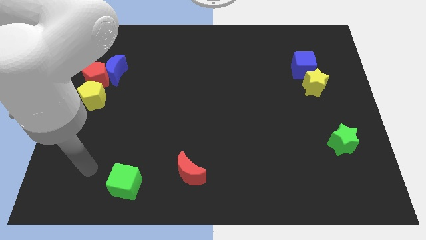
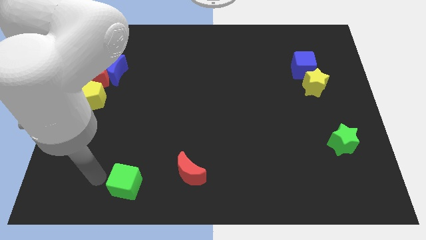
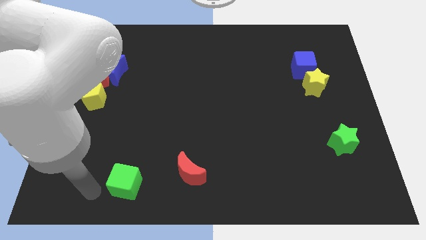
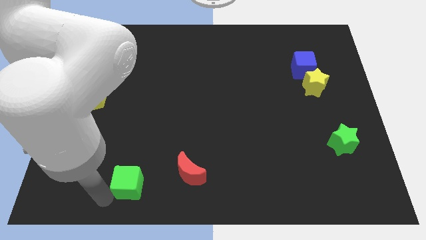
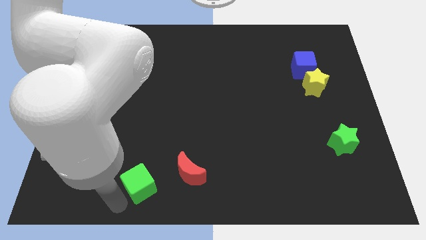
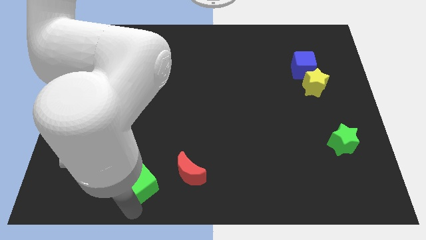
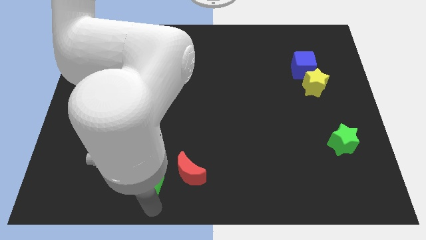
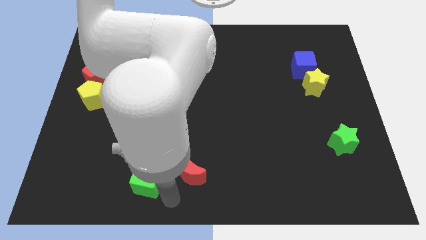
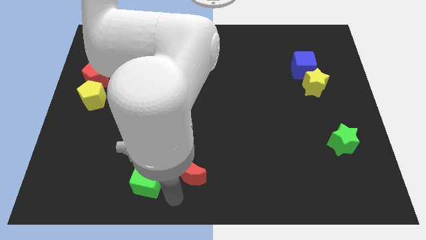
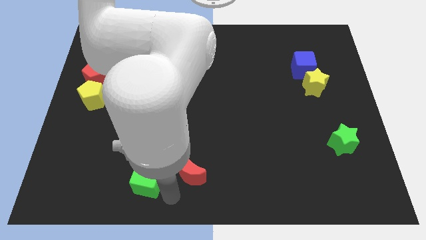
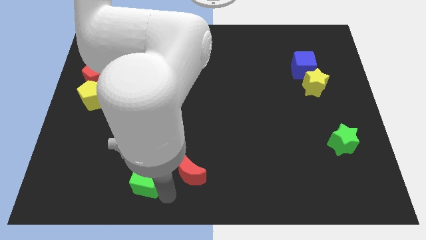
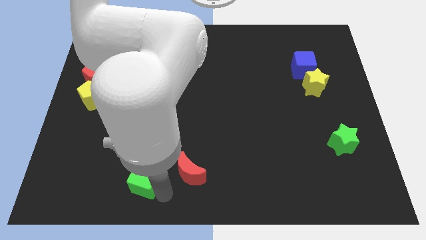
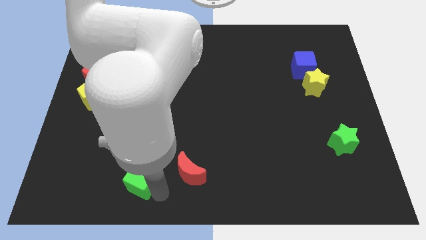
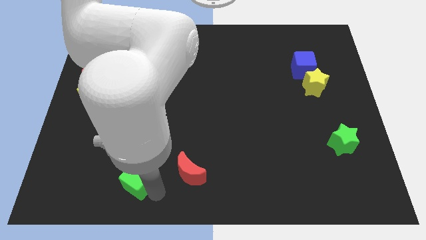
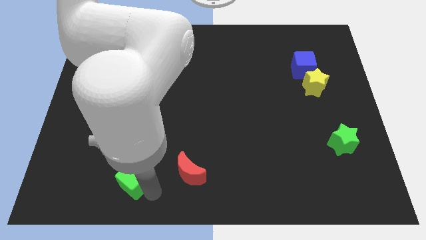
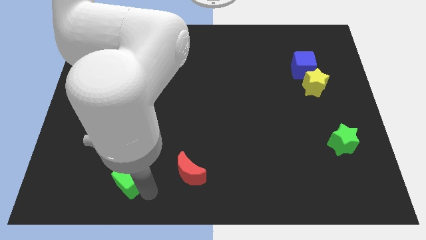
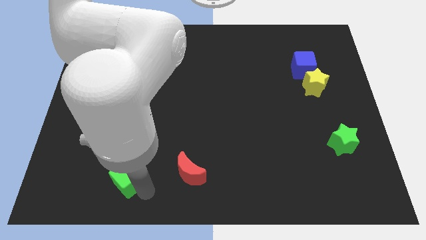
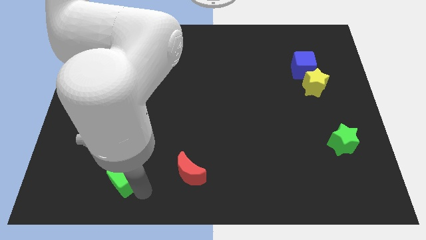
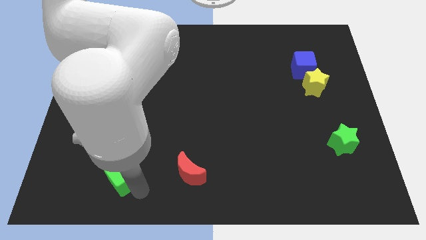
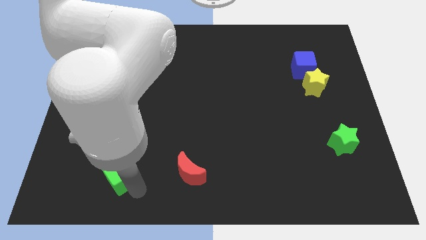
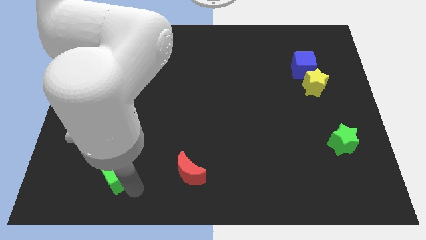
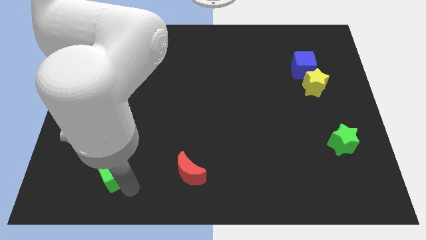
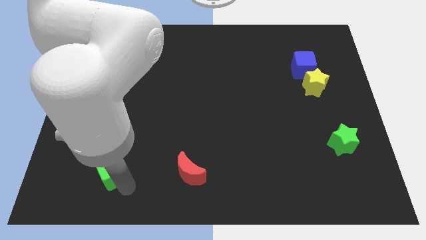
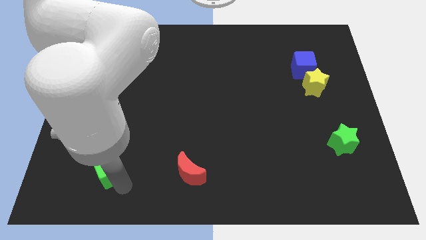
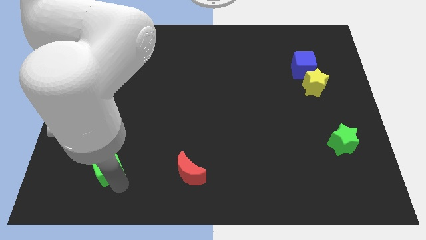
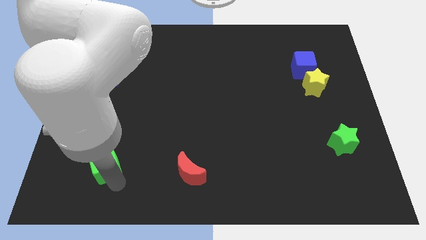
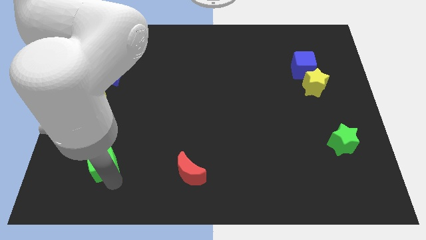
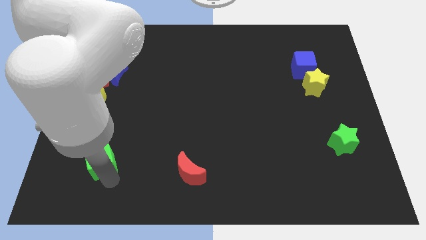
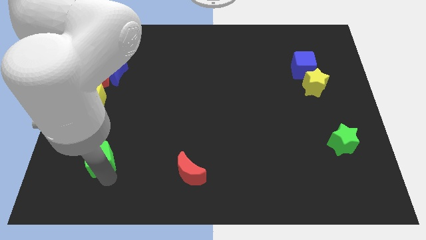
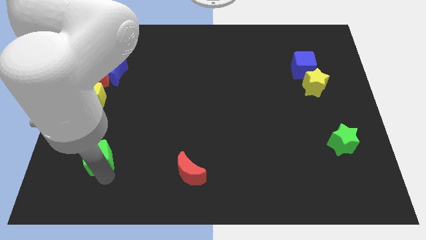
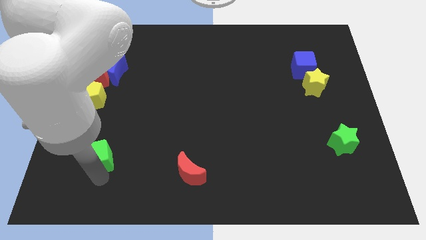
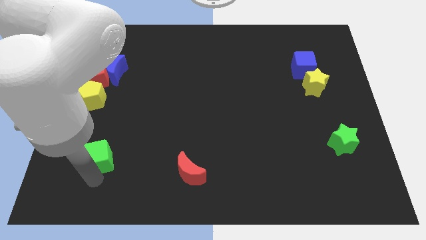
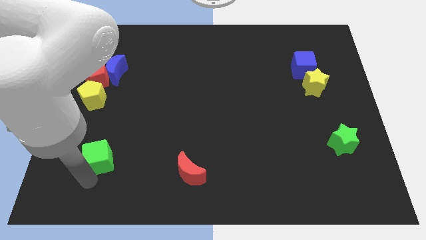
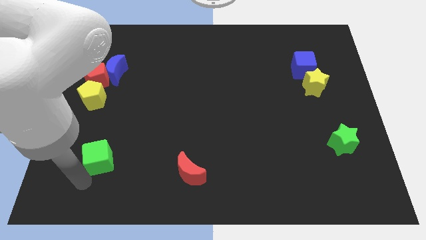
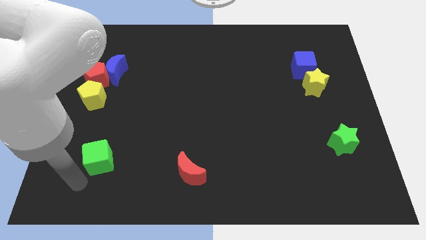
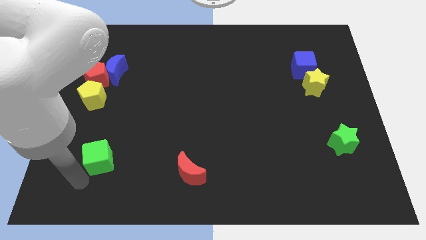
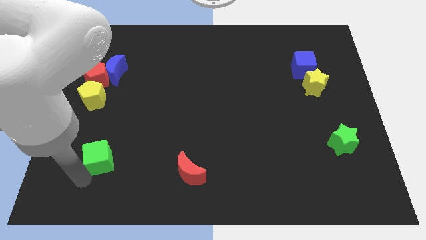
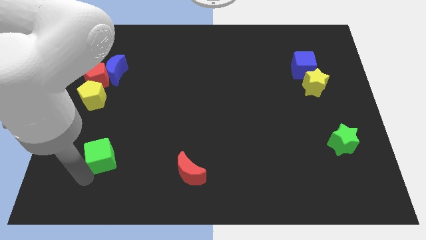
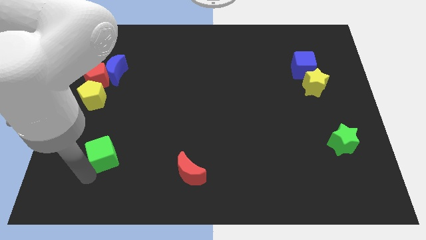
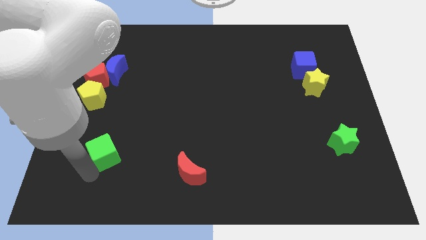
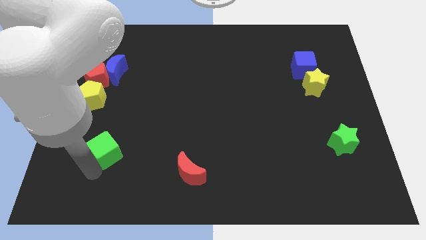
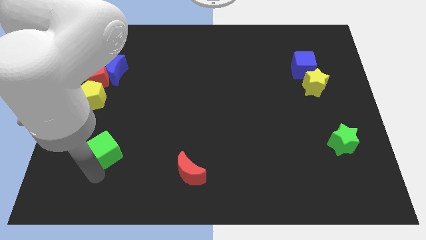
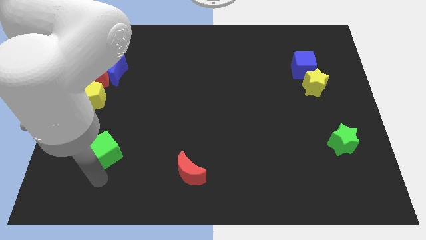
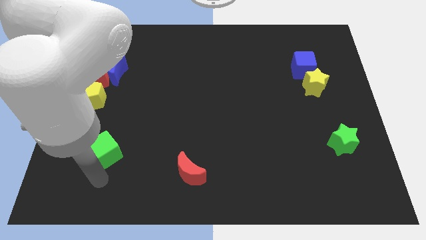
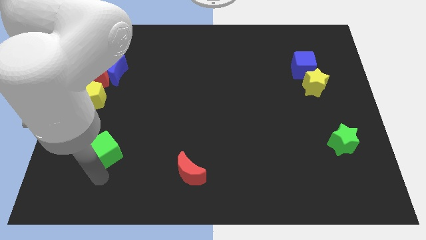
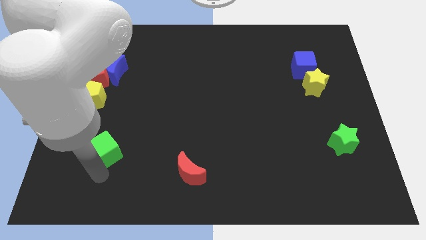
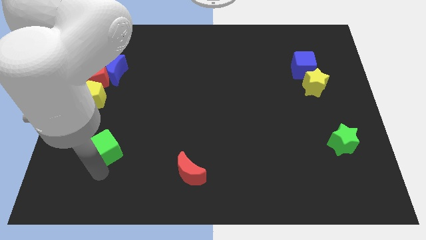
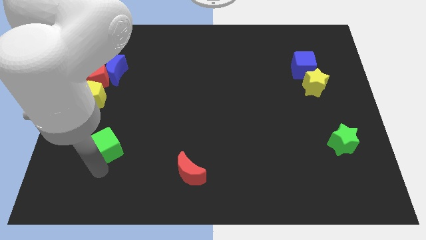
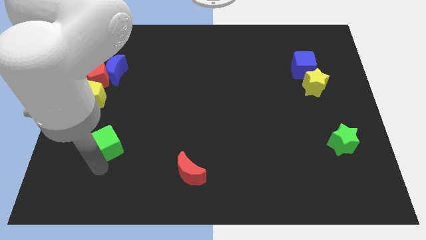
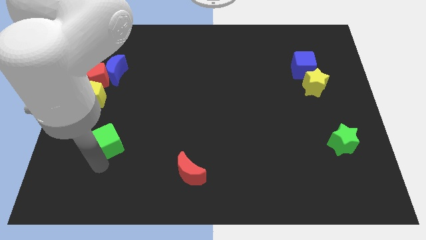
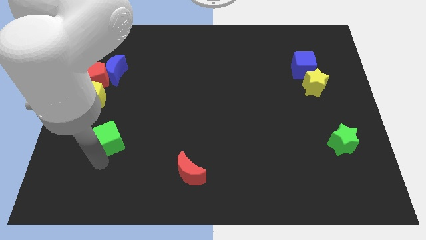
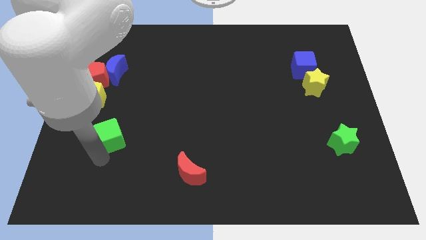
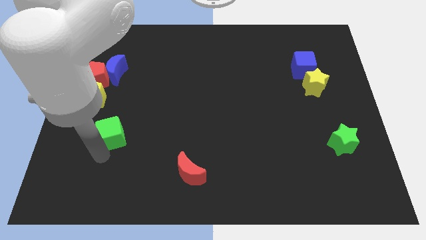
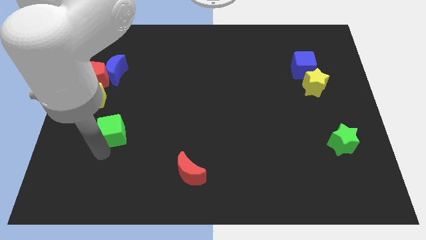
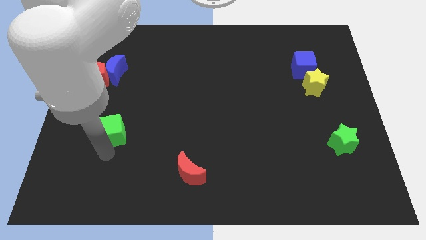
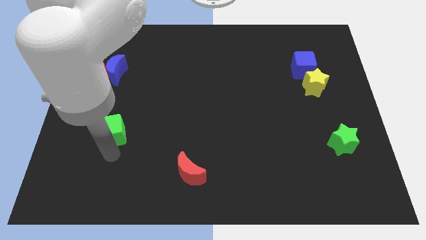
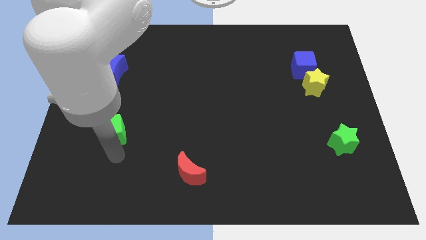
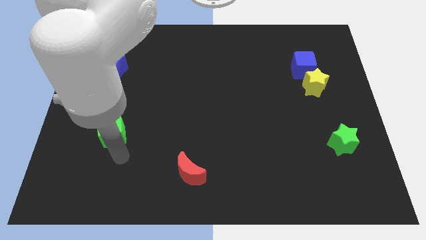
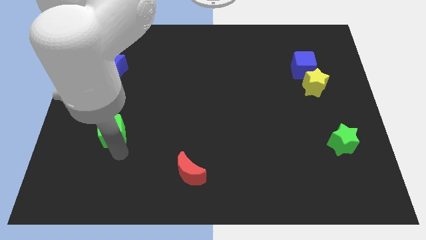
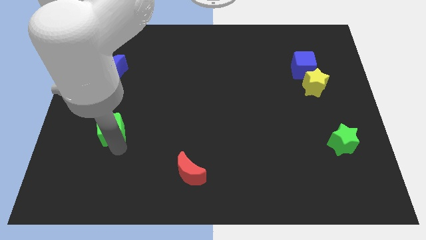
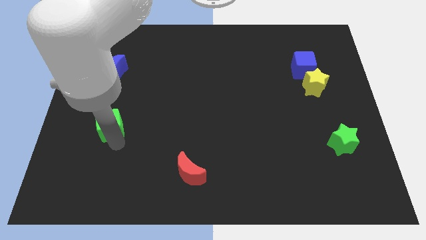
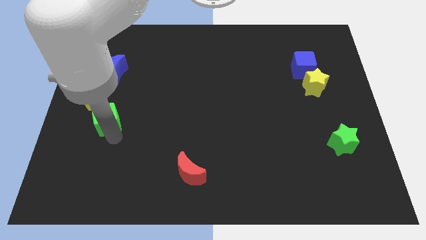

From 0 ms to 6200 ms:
put the green cube below the blue moon
